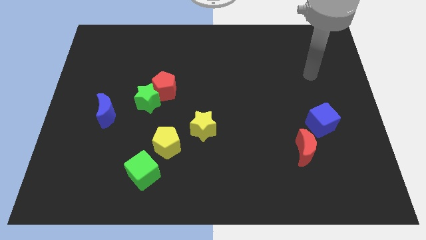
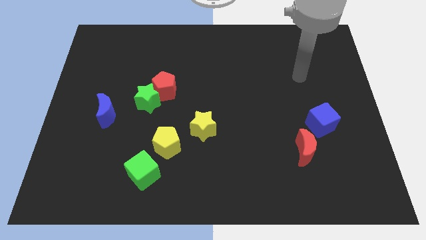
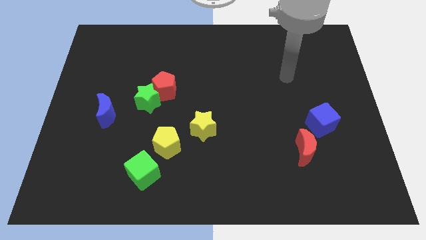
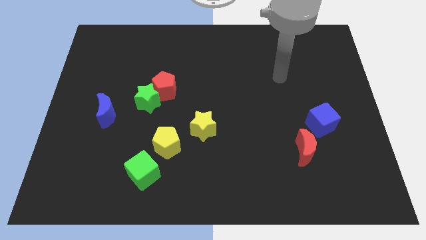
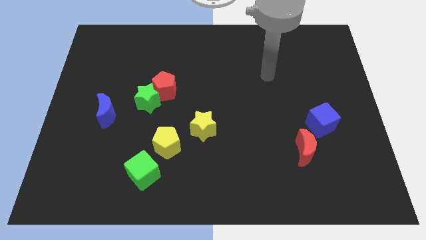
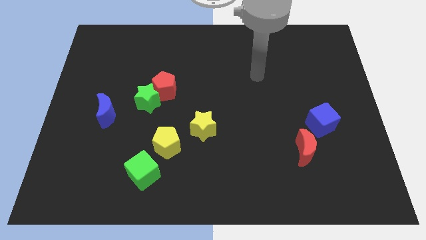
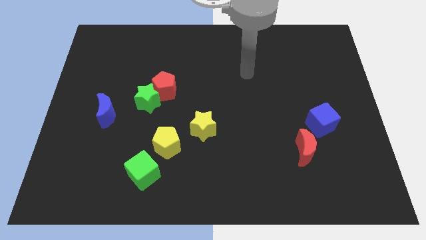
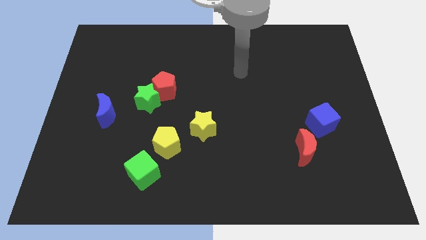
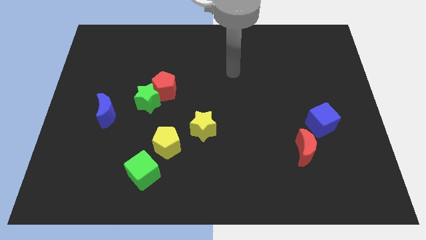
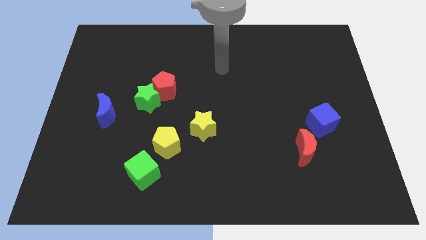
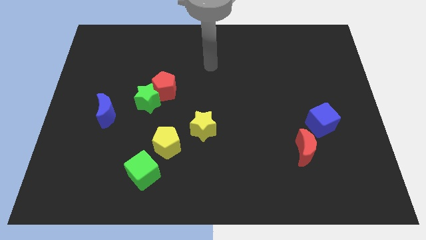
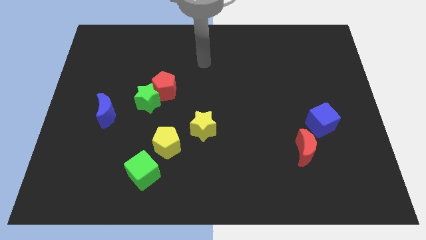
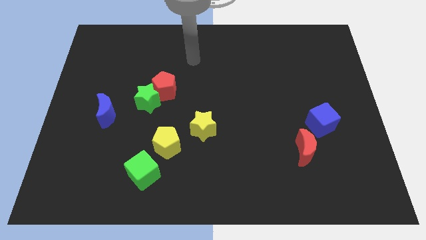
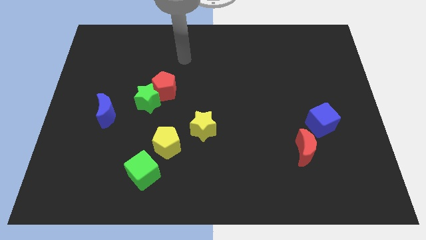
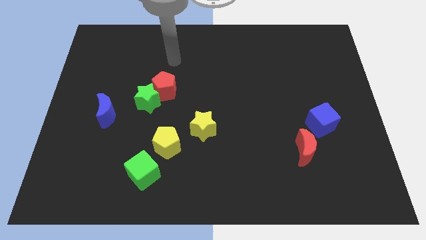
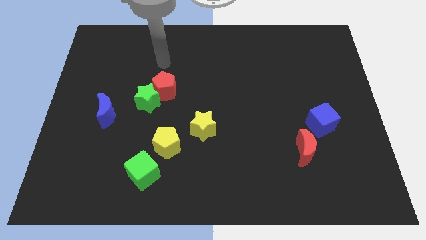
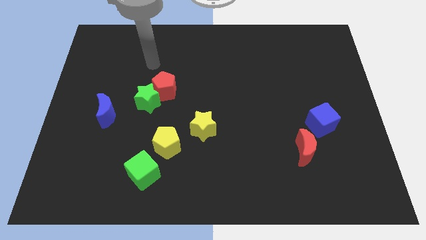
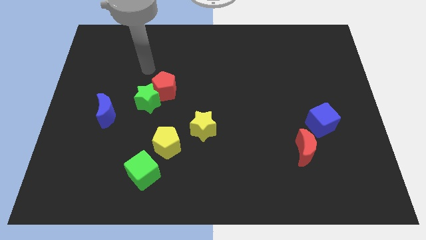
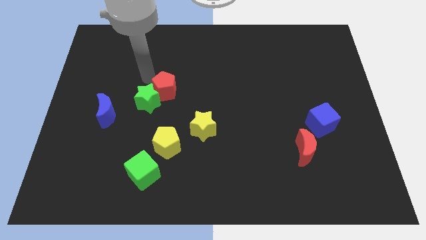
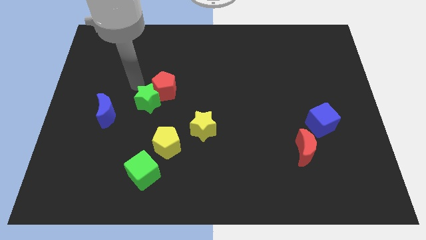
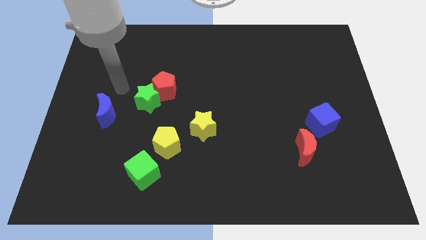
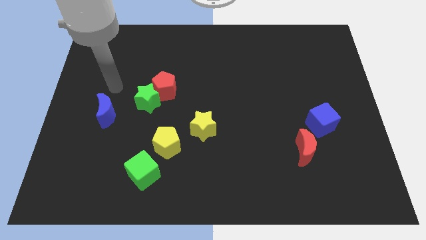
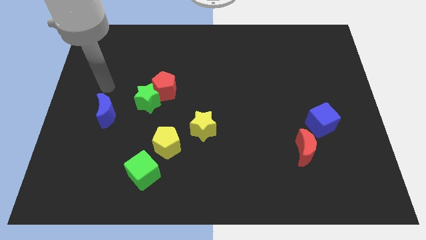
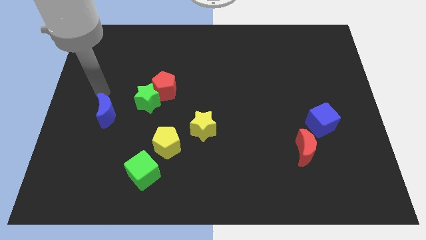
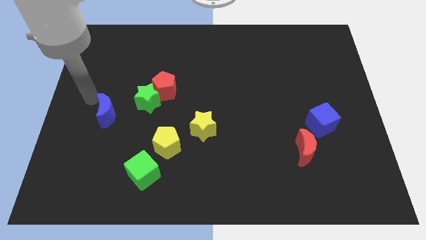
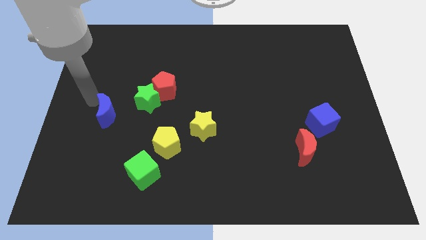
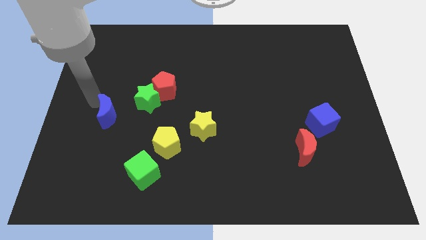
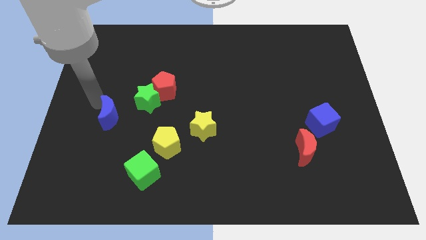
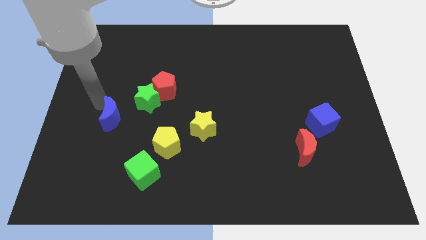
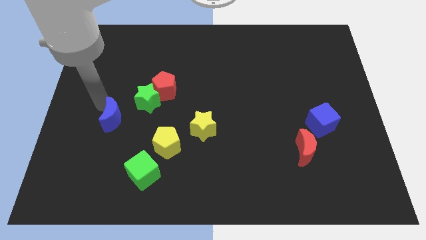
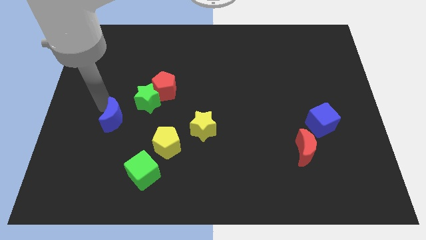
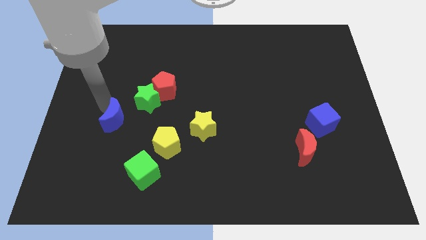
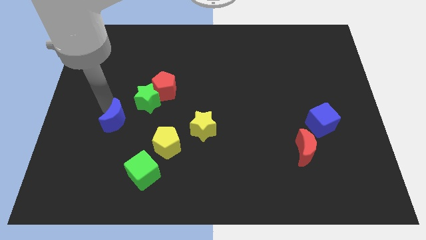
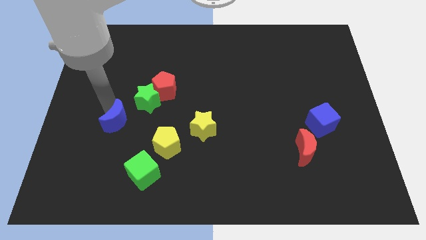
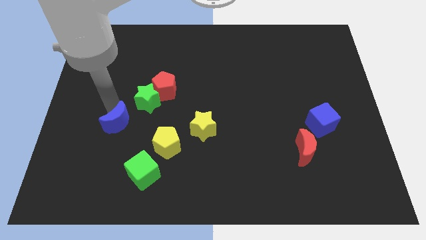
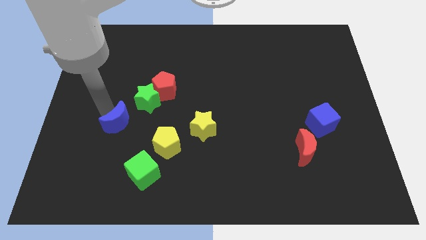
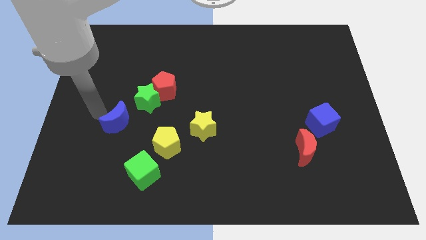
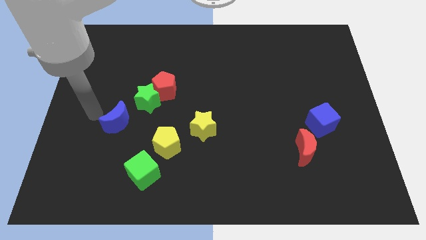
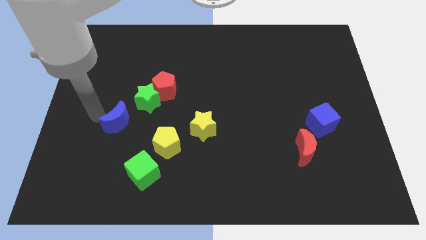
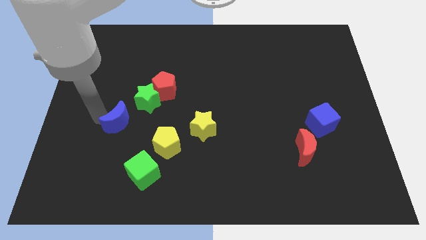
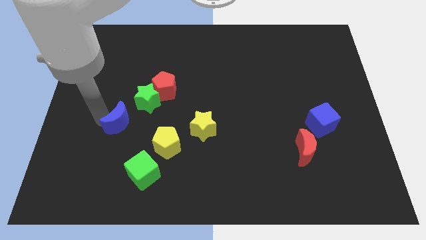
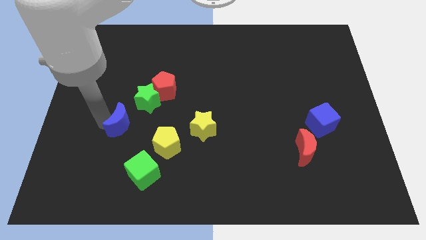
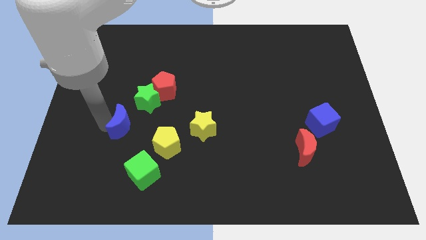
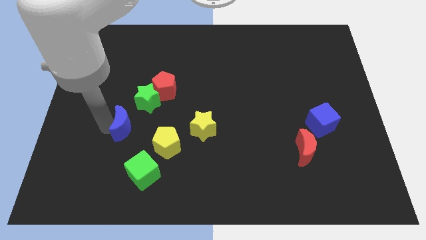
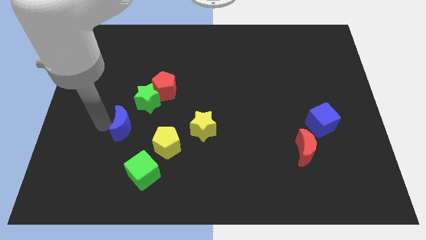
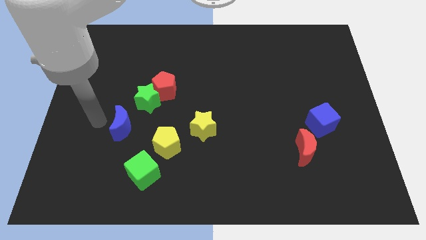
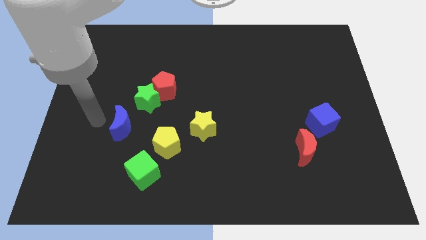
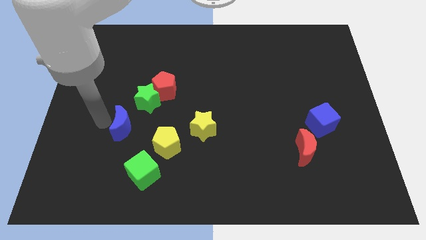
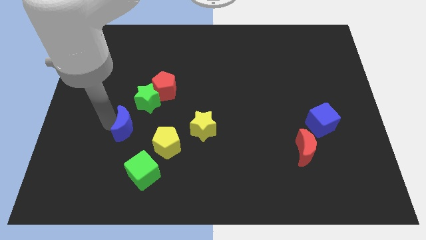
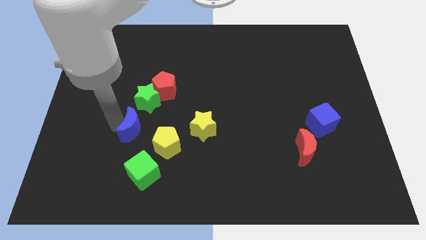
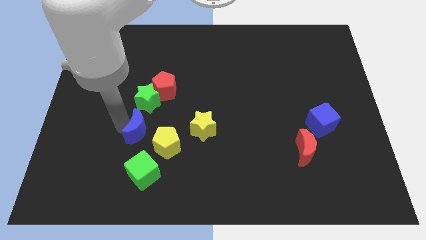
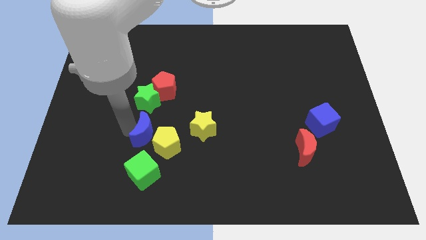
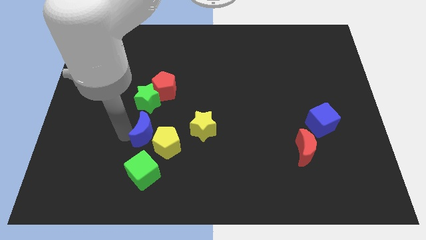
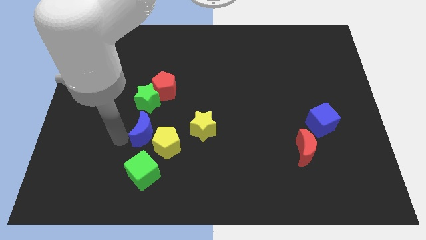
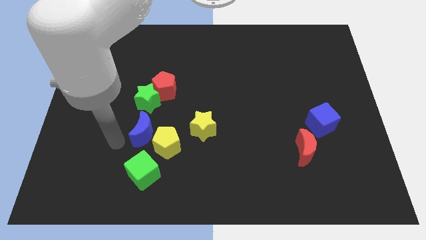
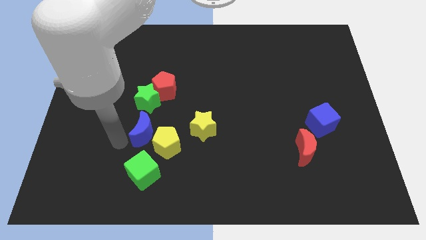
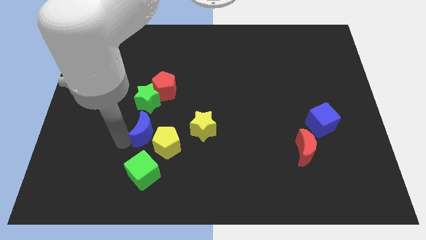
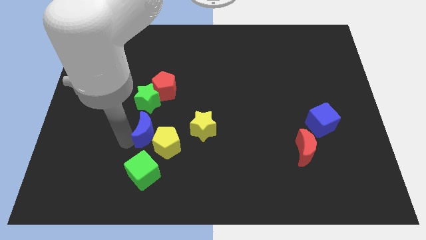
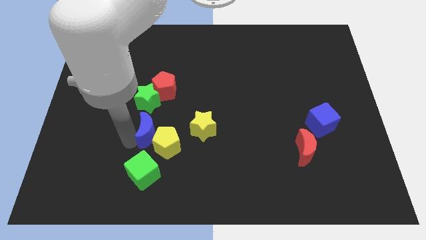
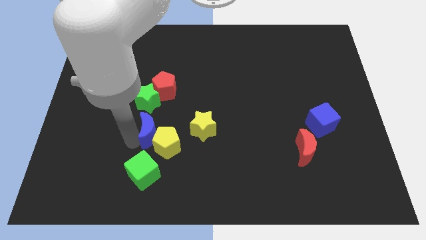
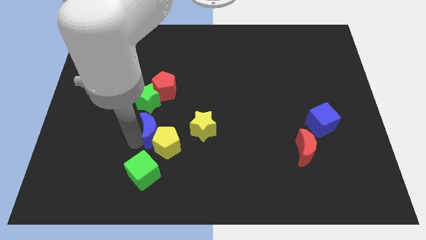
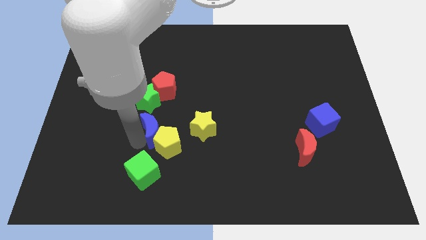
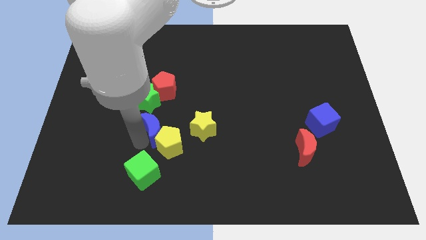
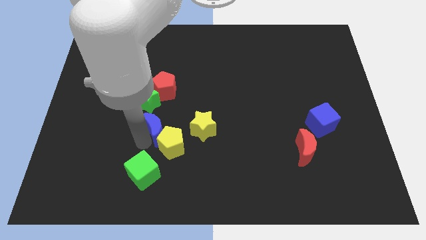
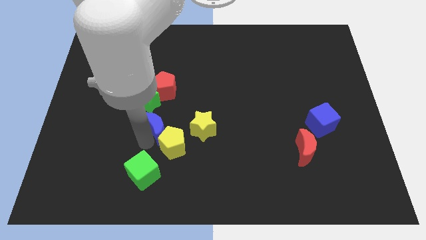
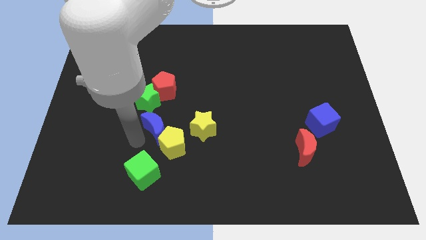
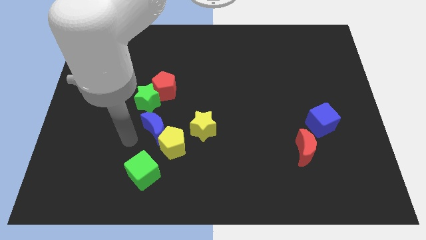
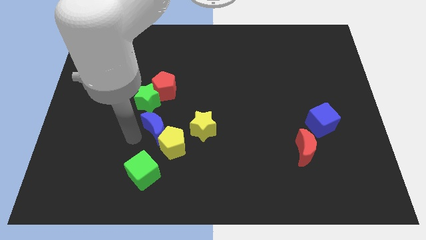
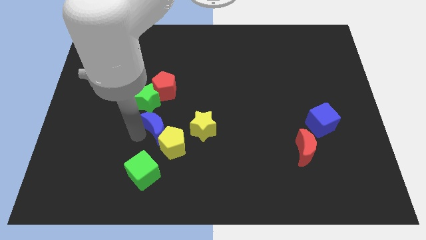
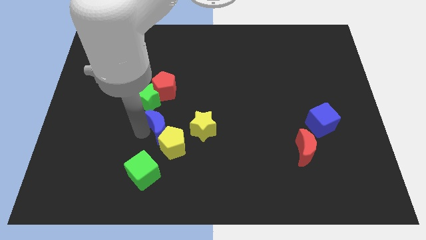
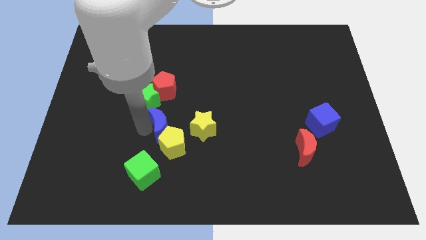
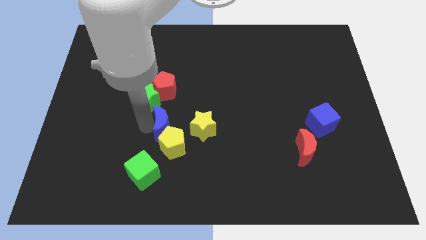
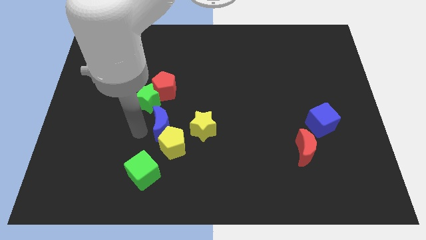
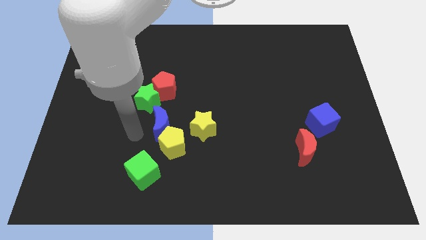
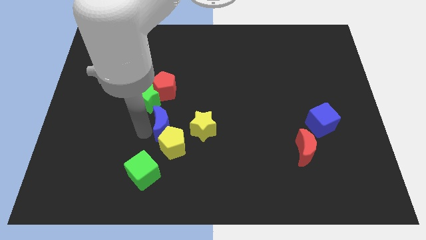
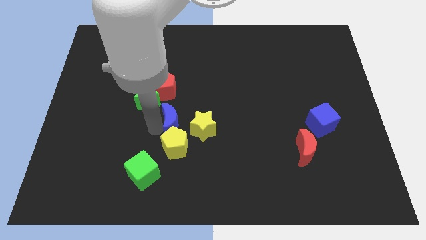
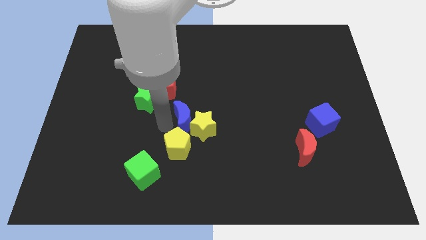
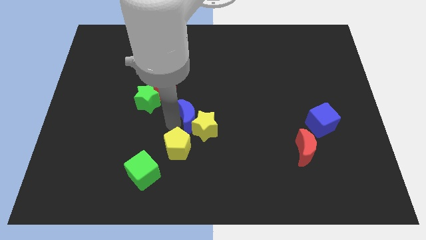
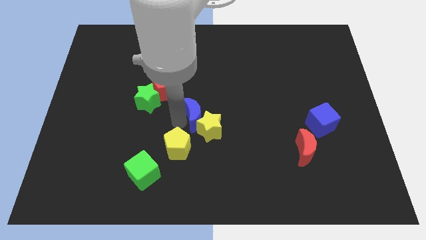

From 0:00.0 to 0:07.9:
move the blue moon right

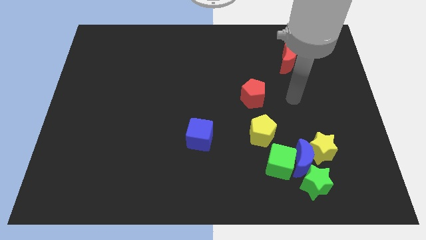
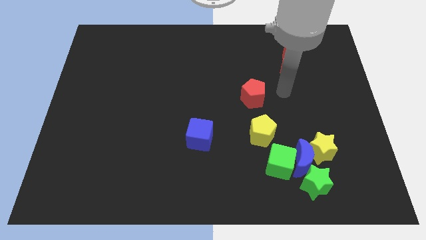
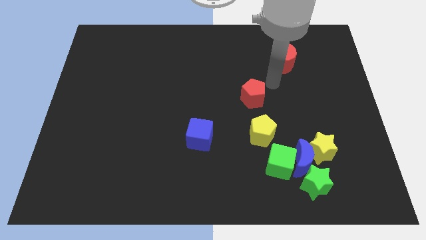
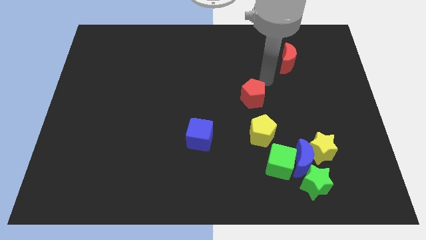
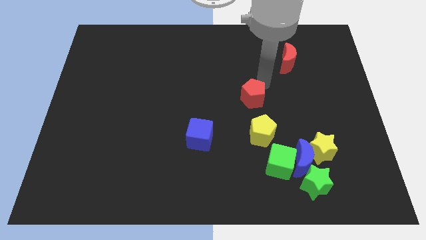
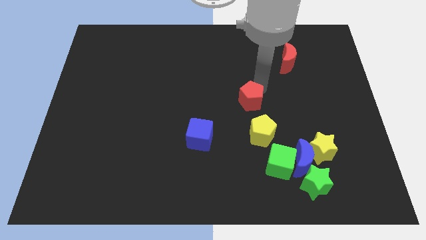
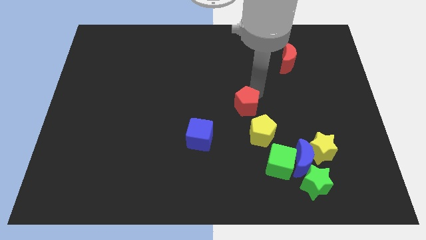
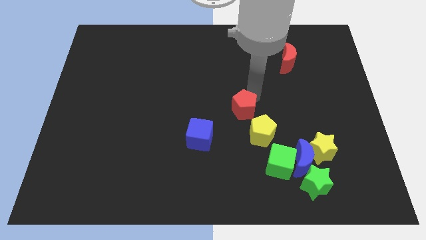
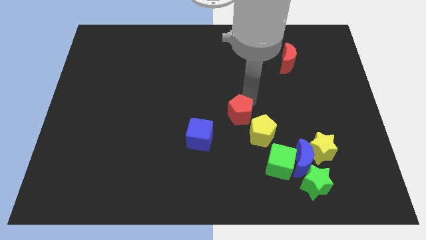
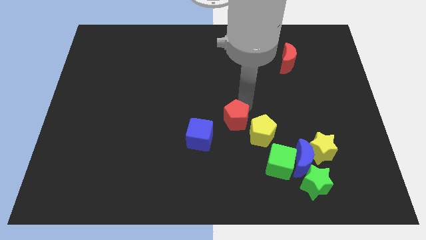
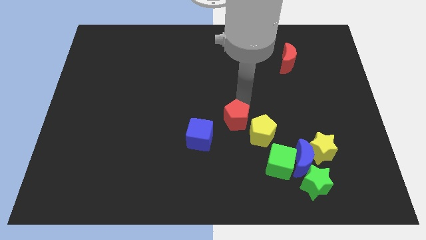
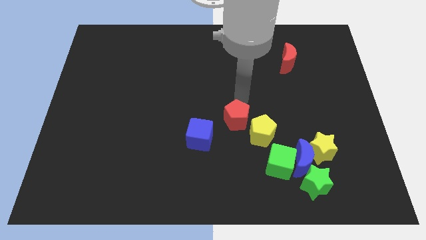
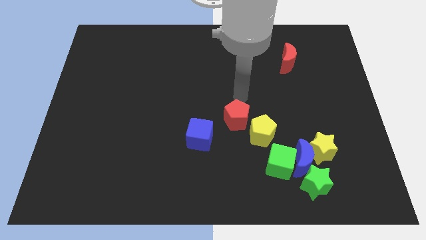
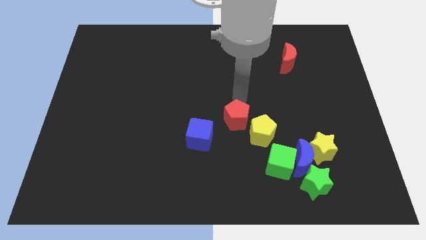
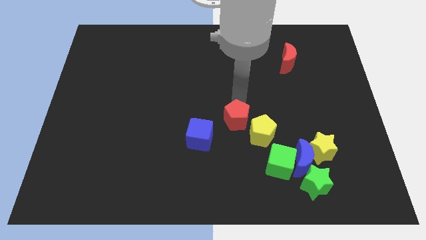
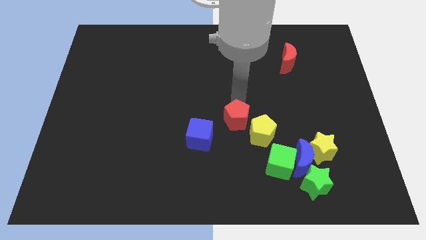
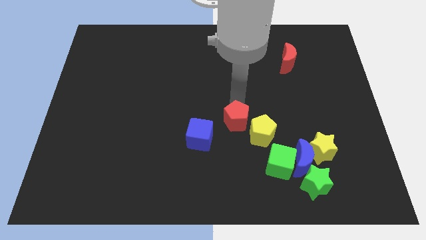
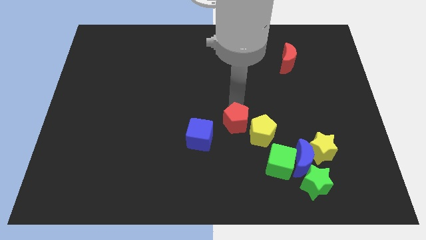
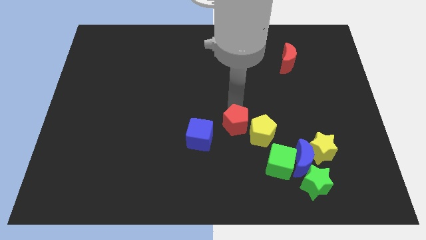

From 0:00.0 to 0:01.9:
slide the red pentagon down slightly
